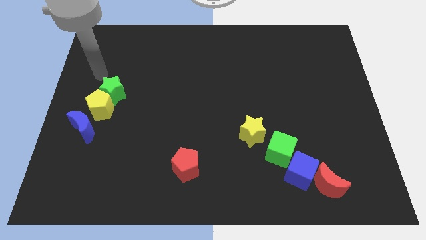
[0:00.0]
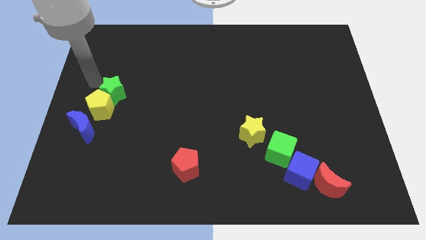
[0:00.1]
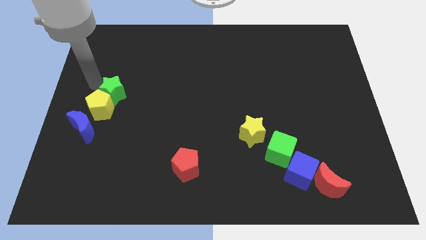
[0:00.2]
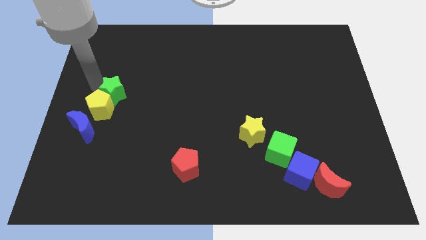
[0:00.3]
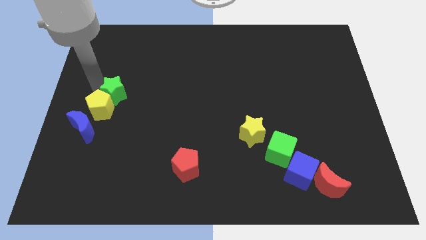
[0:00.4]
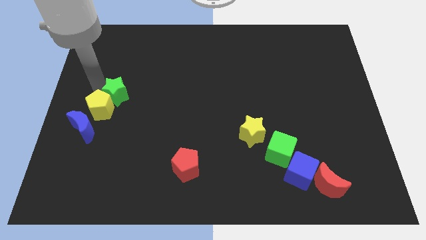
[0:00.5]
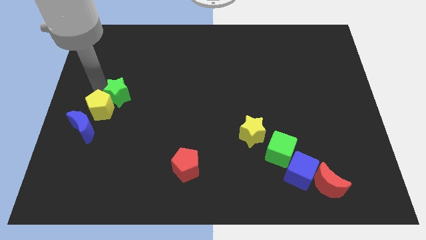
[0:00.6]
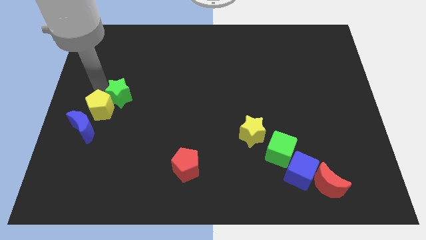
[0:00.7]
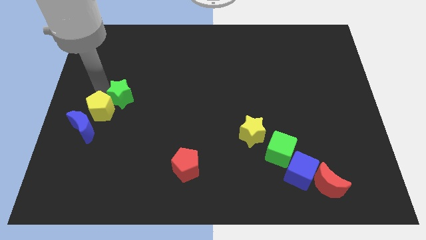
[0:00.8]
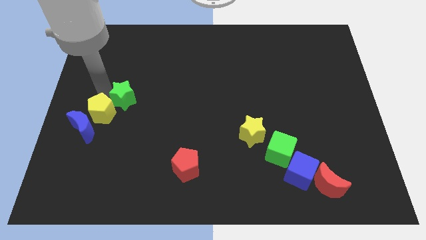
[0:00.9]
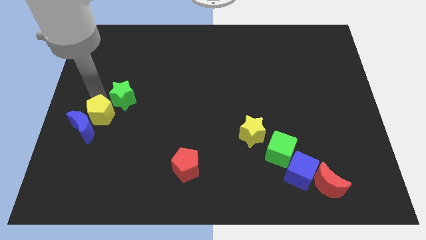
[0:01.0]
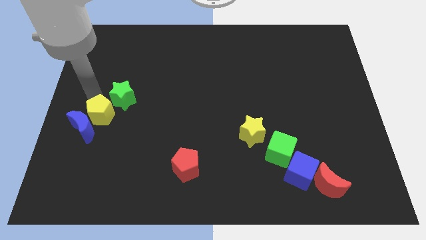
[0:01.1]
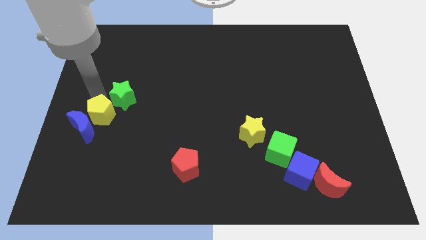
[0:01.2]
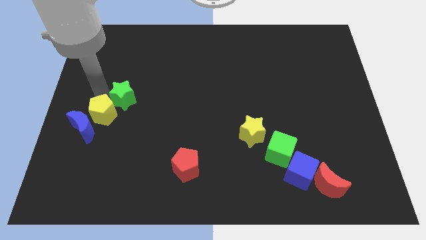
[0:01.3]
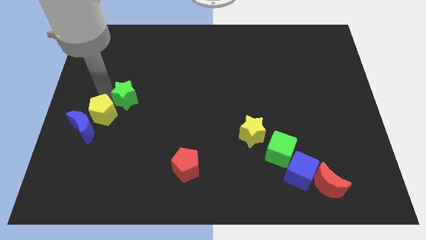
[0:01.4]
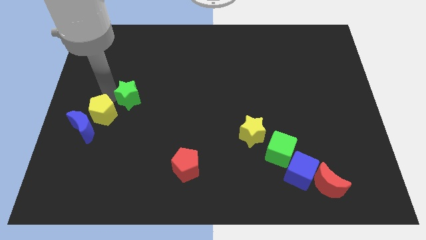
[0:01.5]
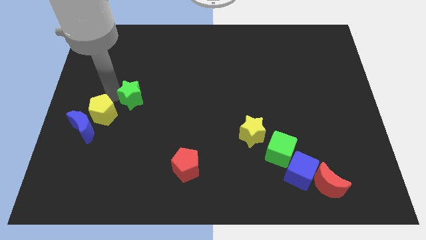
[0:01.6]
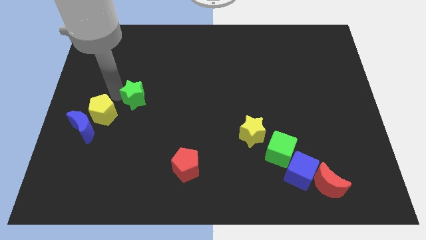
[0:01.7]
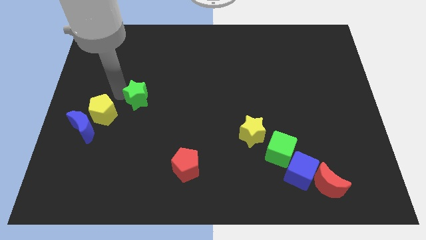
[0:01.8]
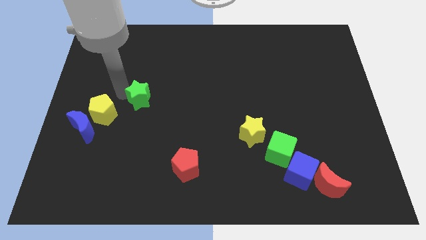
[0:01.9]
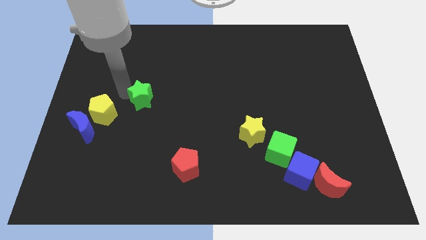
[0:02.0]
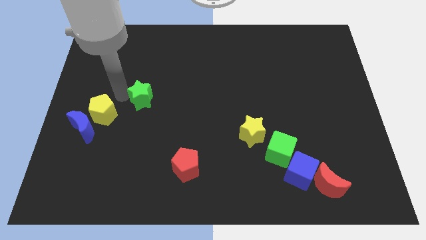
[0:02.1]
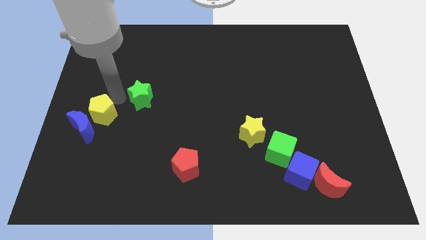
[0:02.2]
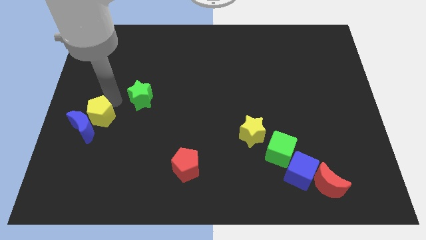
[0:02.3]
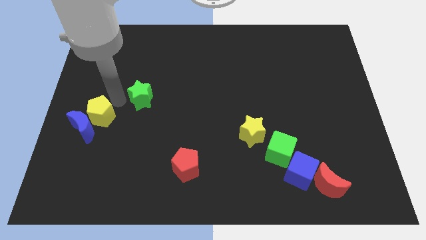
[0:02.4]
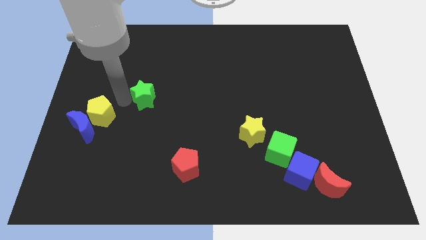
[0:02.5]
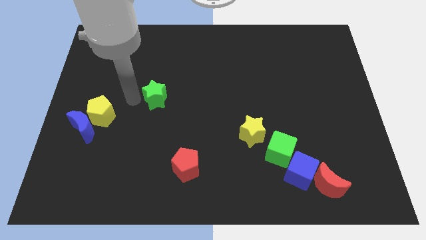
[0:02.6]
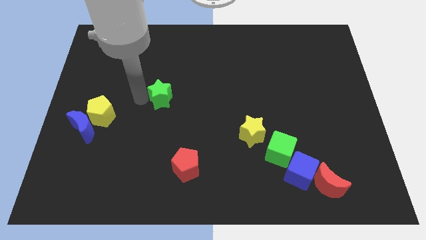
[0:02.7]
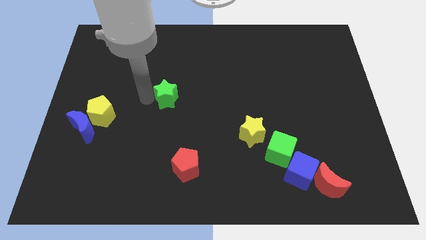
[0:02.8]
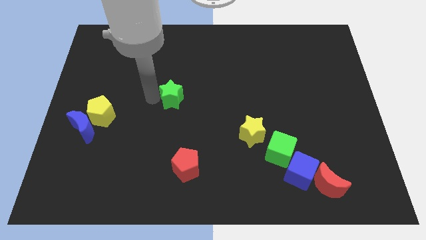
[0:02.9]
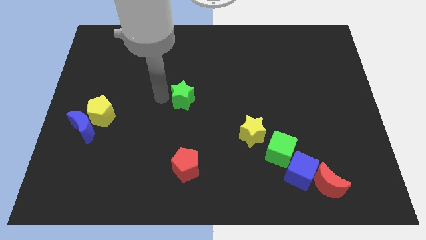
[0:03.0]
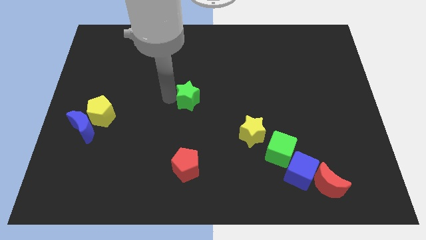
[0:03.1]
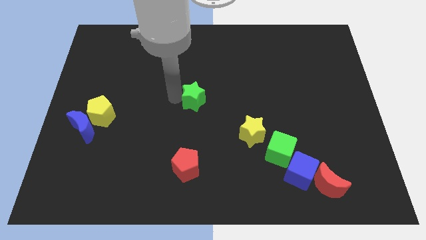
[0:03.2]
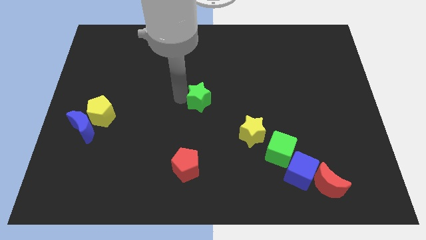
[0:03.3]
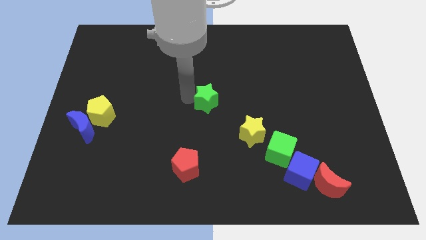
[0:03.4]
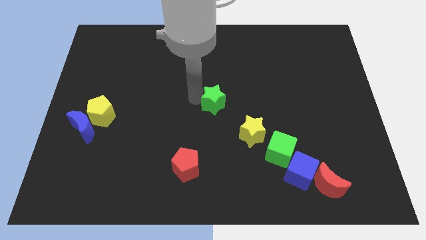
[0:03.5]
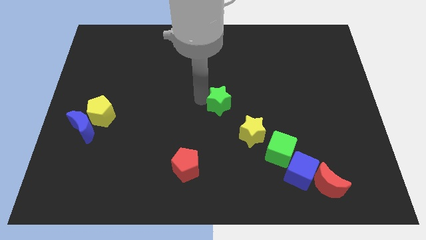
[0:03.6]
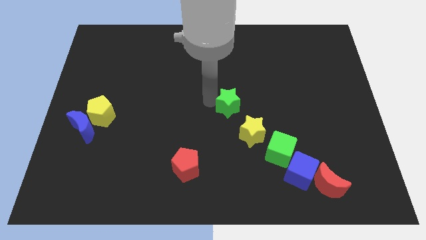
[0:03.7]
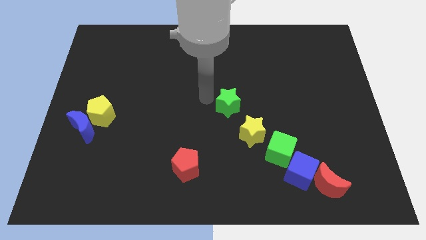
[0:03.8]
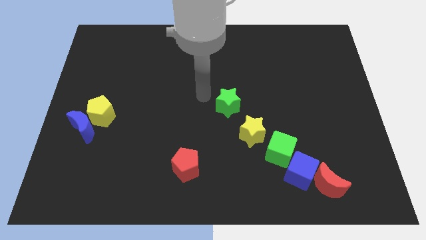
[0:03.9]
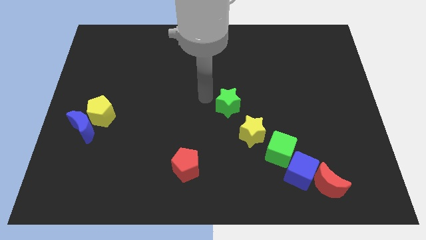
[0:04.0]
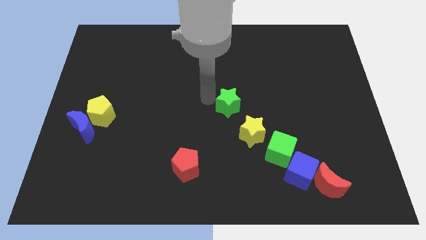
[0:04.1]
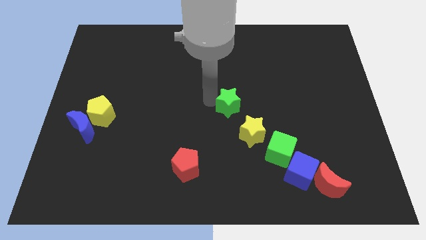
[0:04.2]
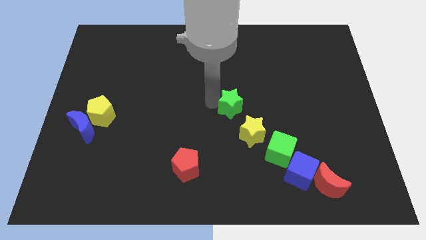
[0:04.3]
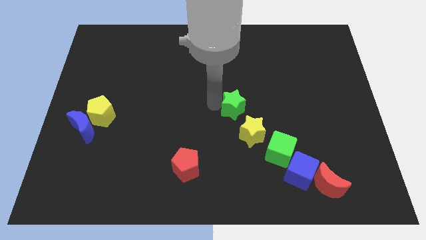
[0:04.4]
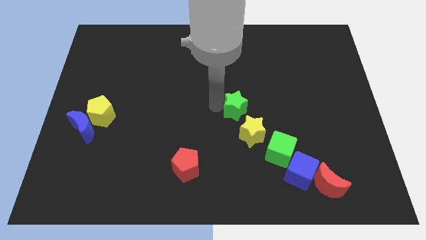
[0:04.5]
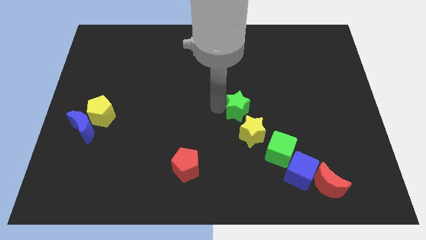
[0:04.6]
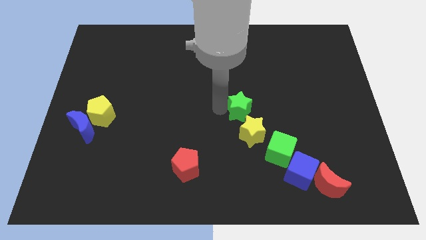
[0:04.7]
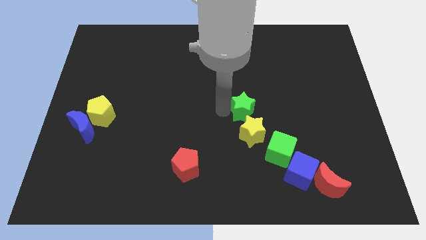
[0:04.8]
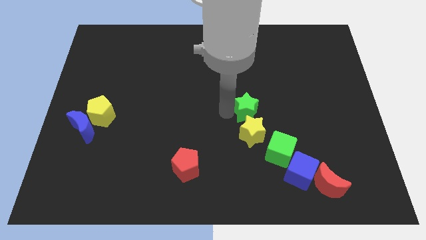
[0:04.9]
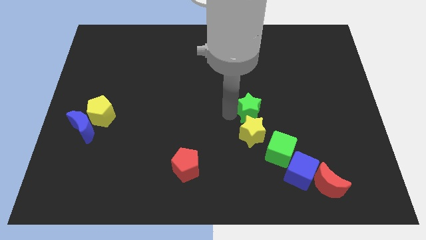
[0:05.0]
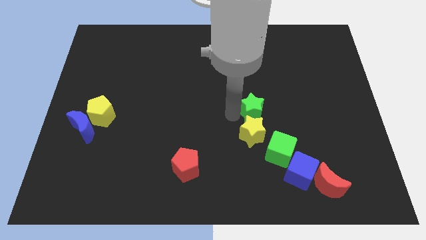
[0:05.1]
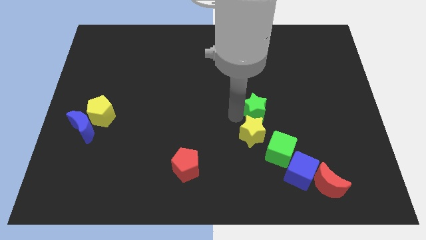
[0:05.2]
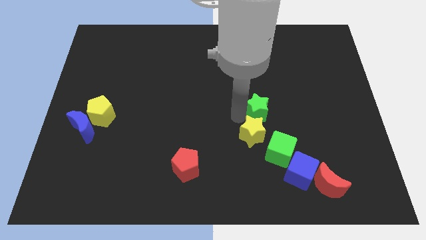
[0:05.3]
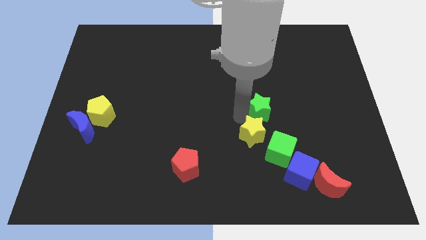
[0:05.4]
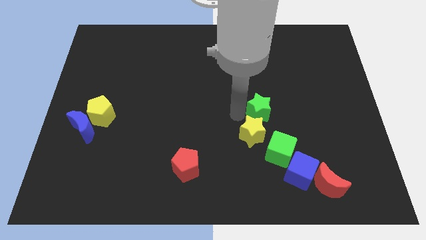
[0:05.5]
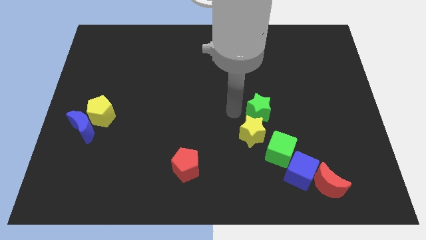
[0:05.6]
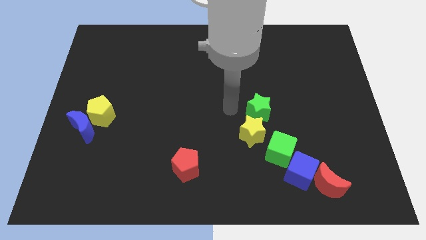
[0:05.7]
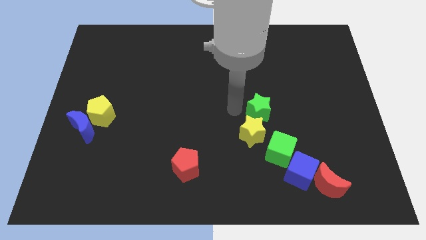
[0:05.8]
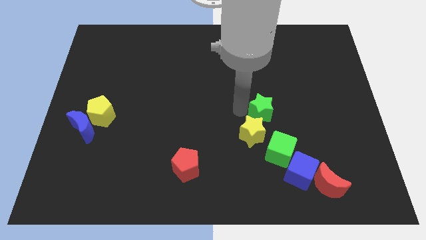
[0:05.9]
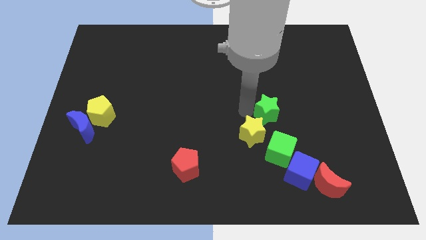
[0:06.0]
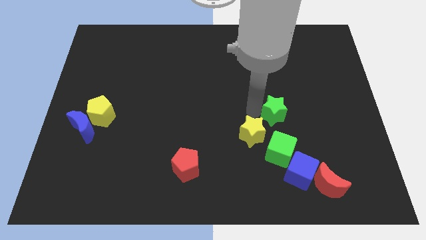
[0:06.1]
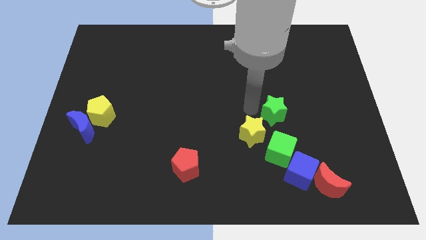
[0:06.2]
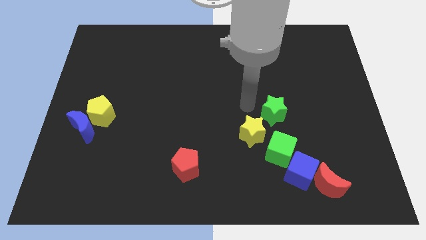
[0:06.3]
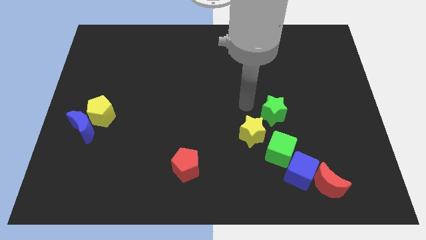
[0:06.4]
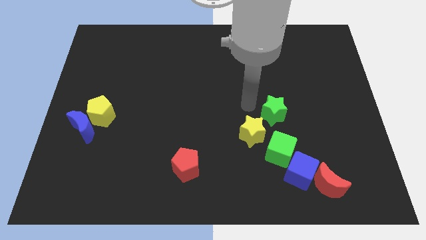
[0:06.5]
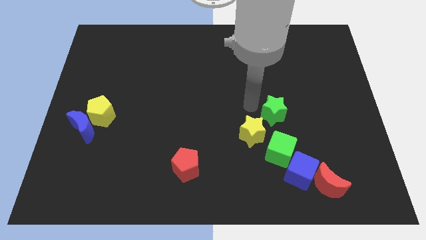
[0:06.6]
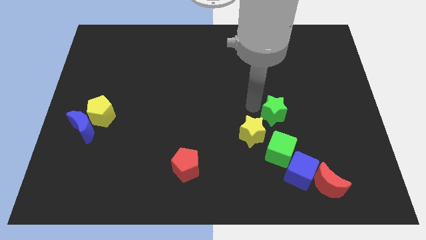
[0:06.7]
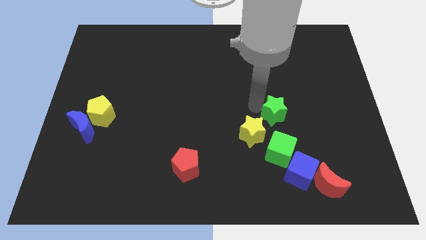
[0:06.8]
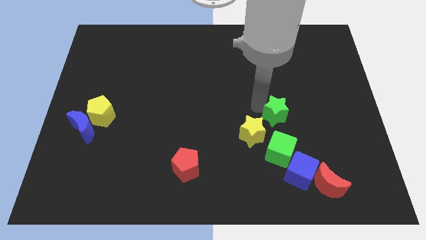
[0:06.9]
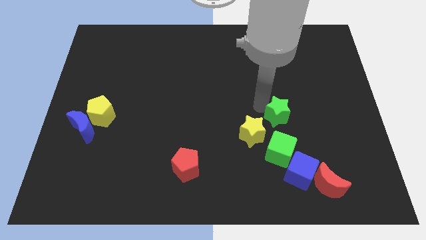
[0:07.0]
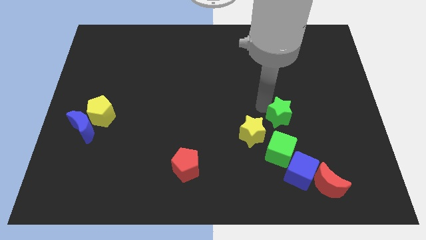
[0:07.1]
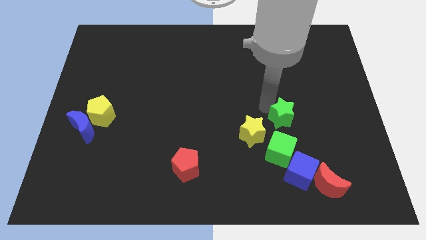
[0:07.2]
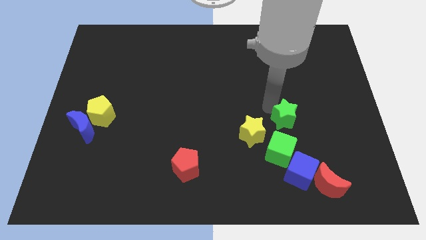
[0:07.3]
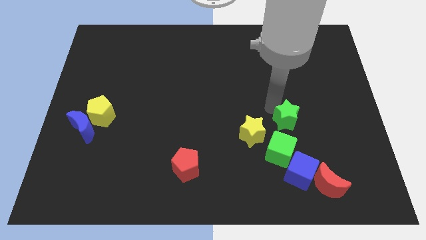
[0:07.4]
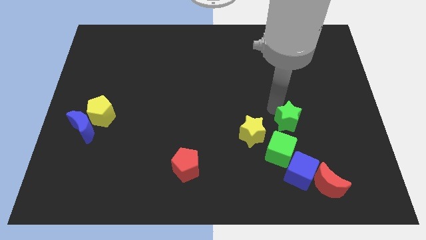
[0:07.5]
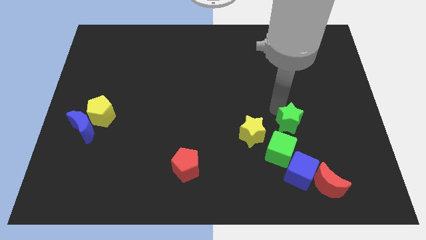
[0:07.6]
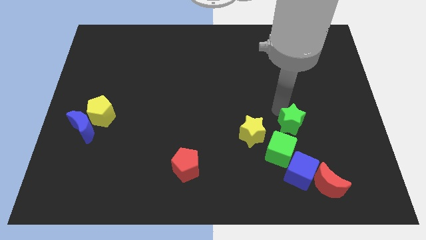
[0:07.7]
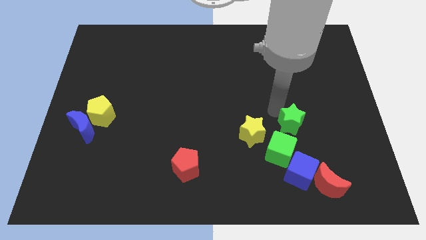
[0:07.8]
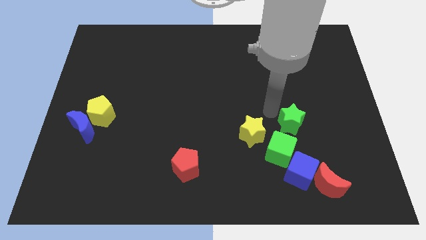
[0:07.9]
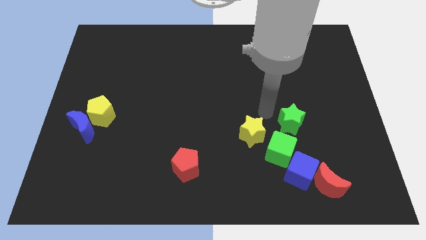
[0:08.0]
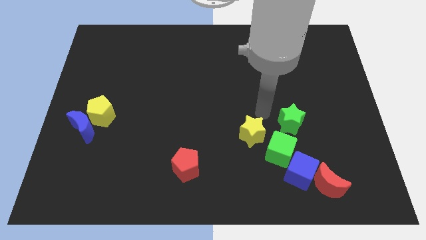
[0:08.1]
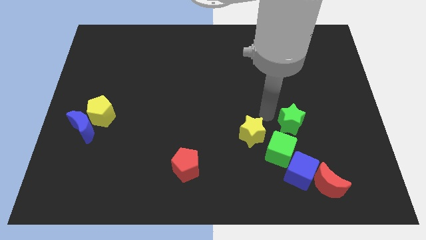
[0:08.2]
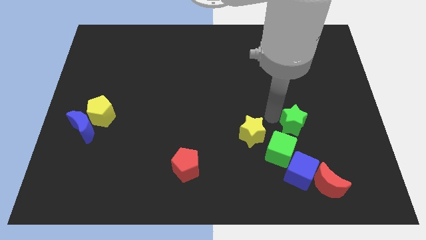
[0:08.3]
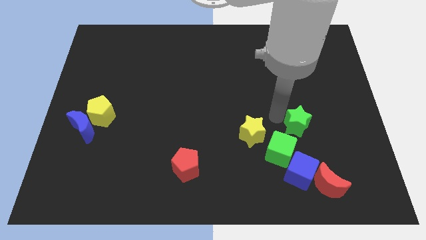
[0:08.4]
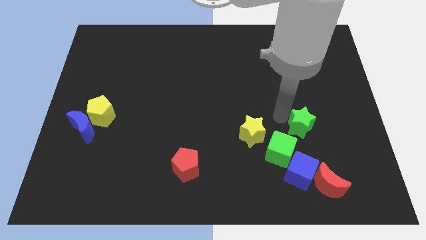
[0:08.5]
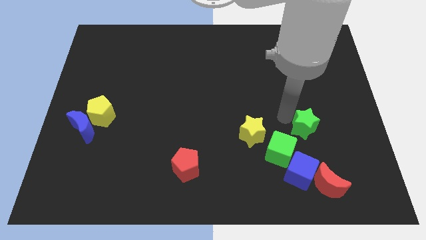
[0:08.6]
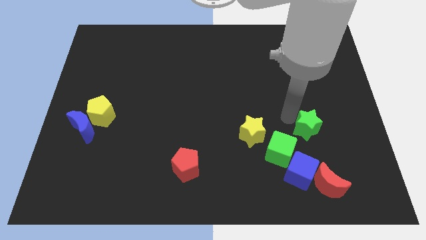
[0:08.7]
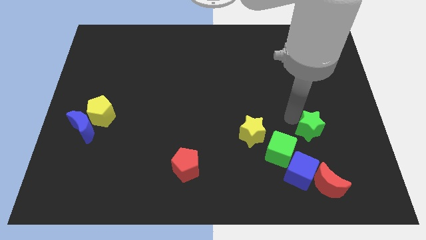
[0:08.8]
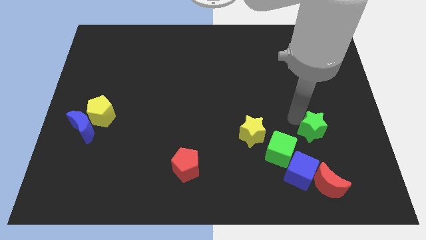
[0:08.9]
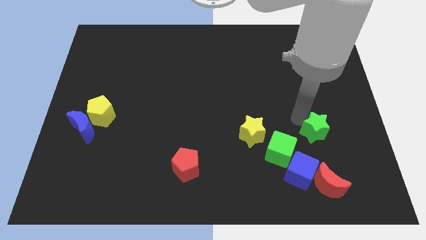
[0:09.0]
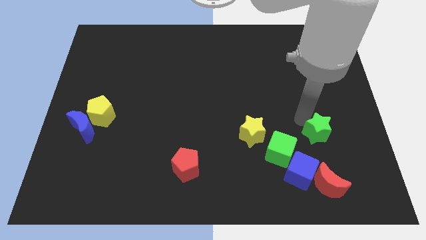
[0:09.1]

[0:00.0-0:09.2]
push the green star diagonally up and to the right of the blue cube
